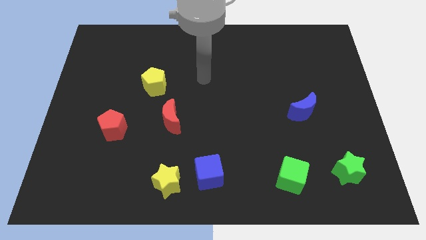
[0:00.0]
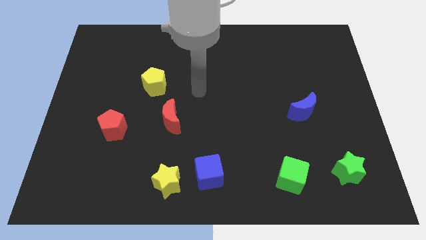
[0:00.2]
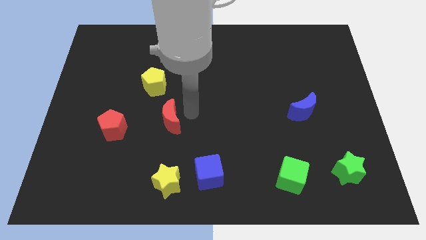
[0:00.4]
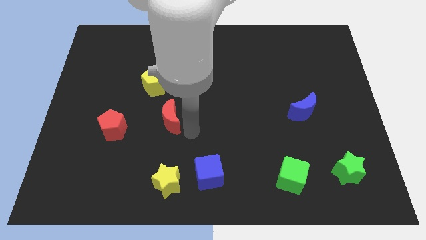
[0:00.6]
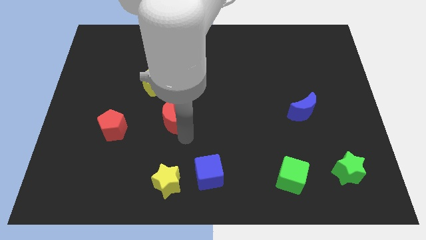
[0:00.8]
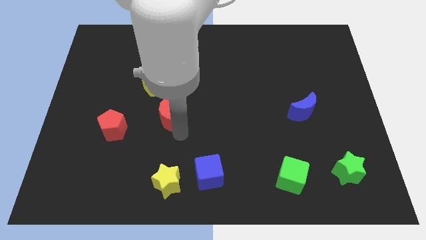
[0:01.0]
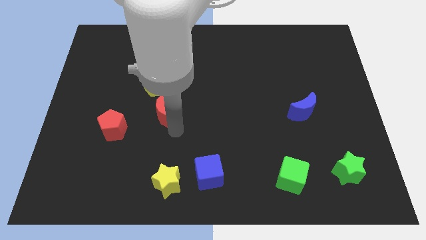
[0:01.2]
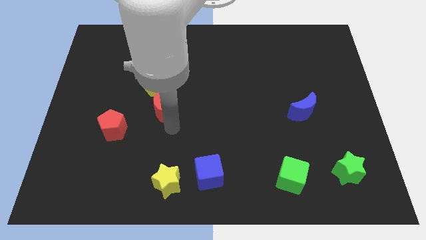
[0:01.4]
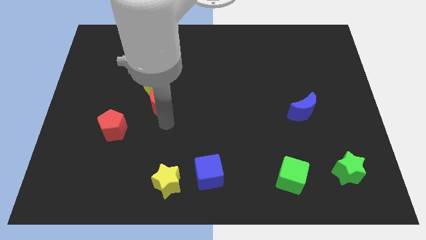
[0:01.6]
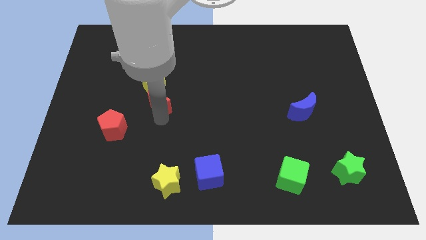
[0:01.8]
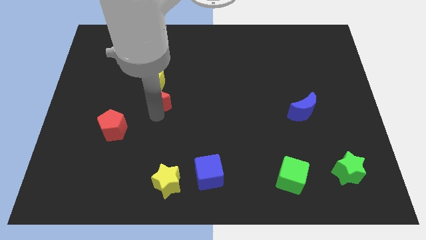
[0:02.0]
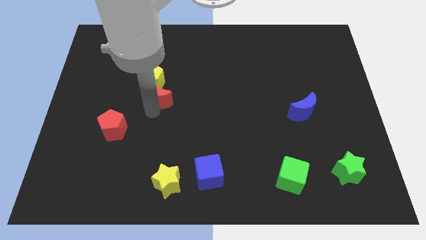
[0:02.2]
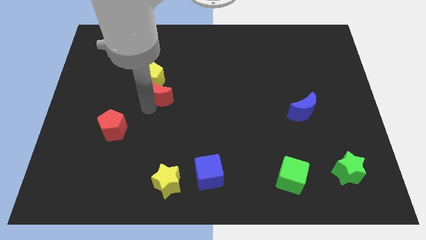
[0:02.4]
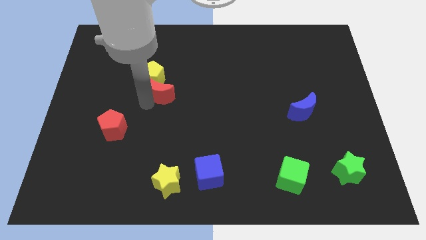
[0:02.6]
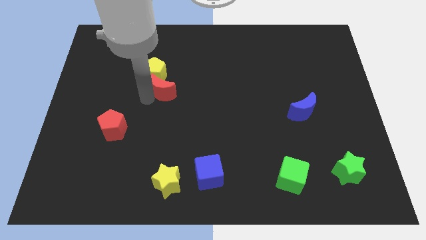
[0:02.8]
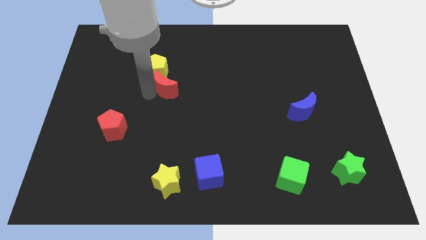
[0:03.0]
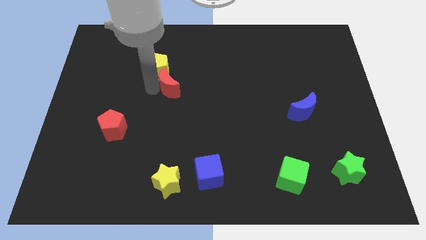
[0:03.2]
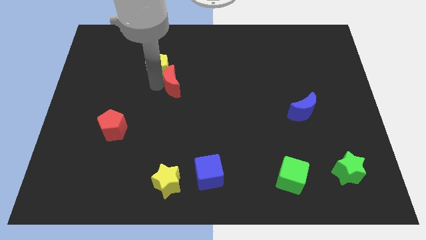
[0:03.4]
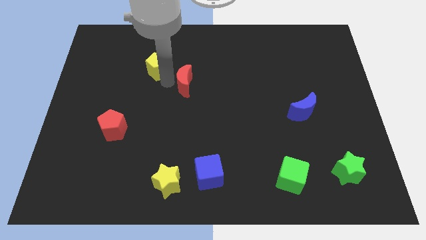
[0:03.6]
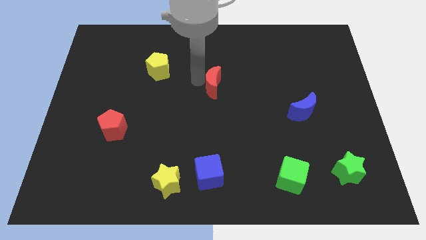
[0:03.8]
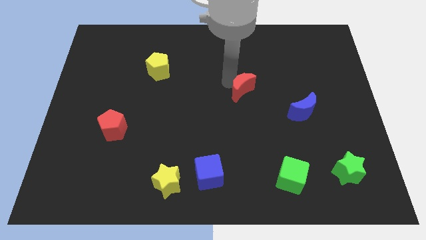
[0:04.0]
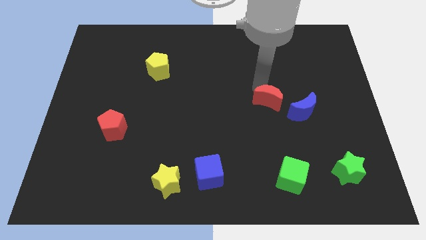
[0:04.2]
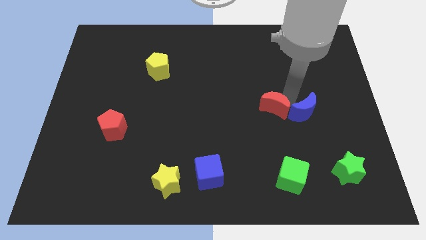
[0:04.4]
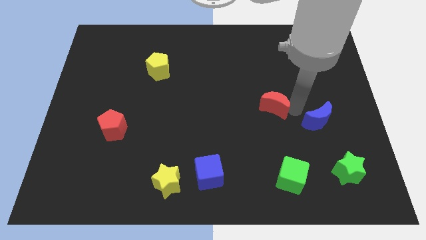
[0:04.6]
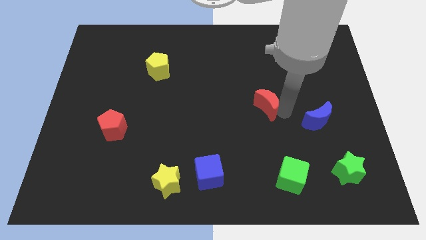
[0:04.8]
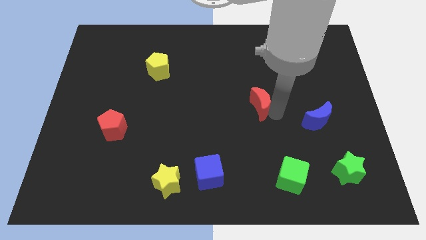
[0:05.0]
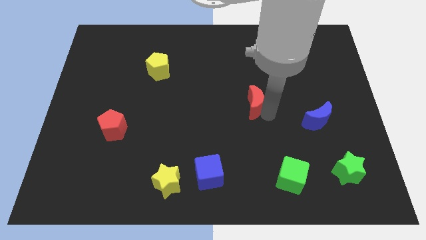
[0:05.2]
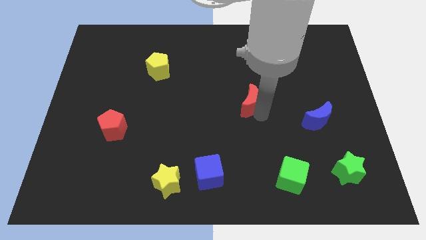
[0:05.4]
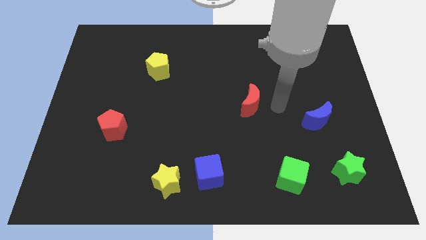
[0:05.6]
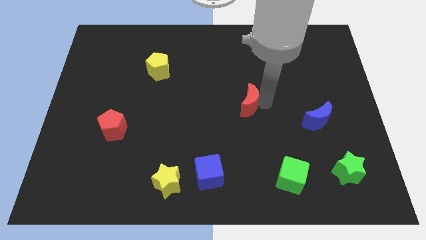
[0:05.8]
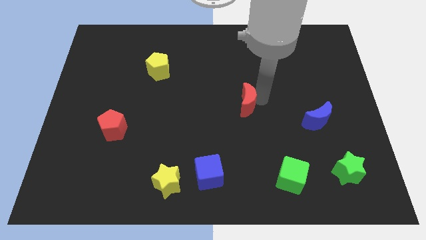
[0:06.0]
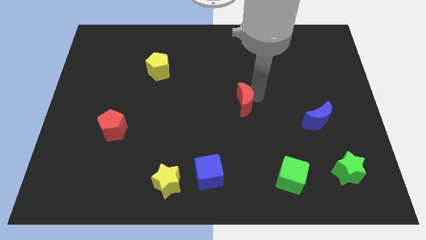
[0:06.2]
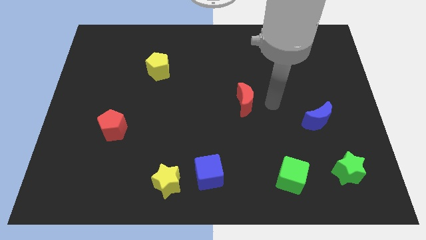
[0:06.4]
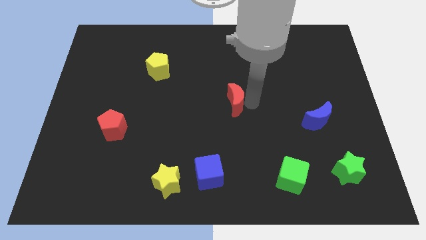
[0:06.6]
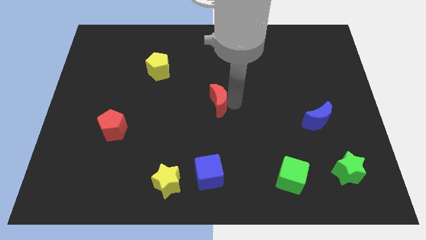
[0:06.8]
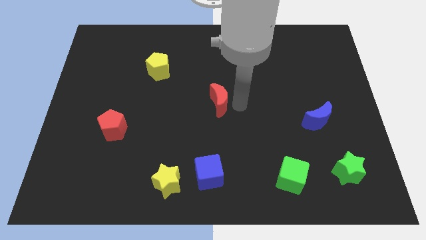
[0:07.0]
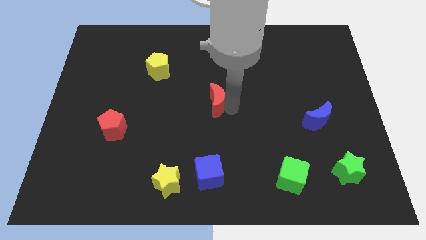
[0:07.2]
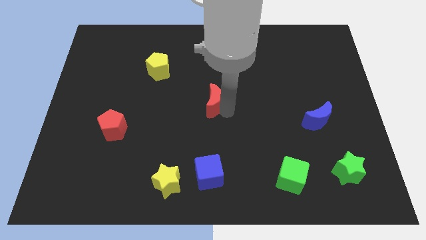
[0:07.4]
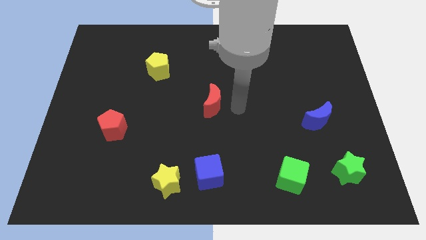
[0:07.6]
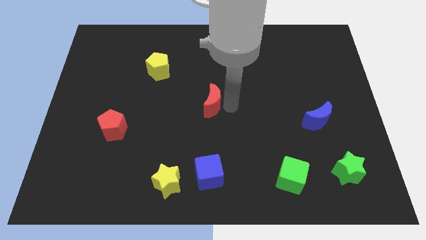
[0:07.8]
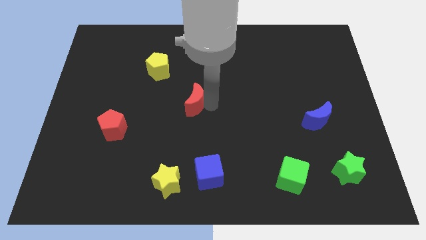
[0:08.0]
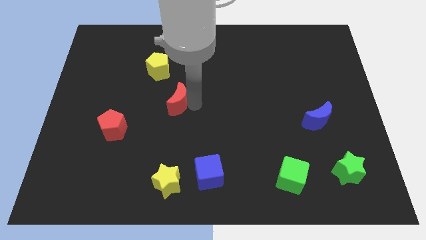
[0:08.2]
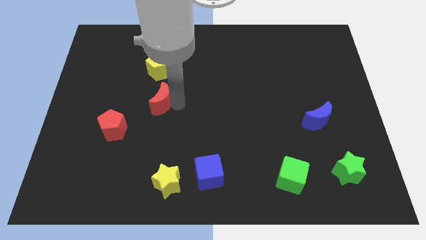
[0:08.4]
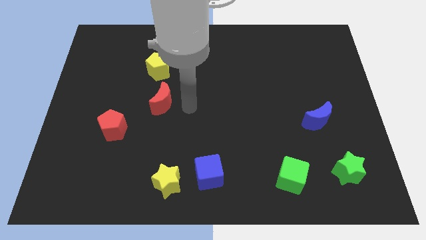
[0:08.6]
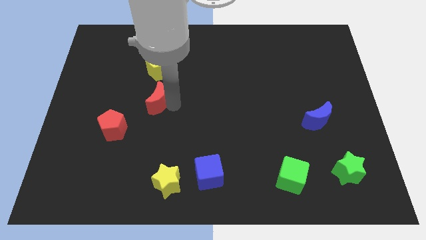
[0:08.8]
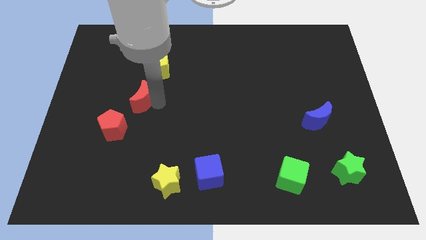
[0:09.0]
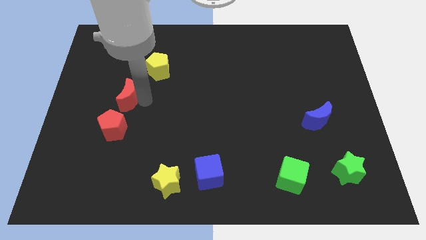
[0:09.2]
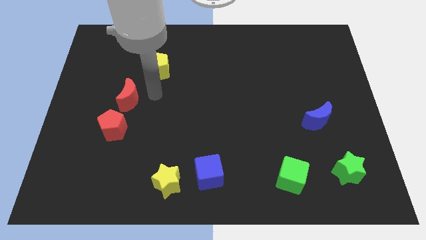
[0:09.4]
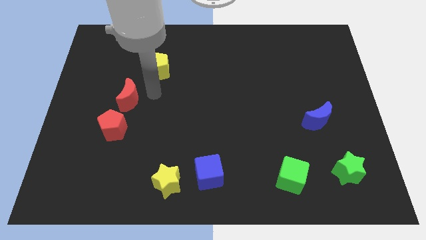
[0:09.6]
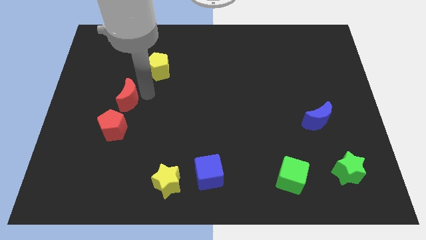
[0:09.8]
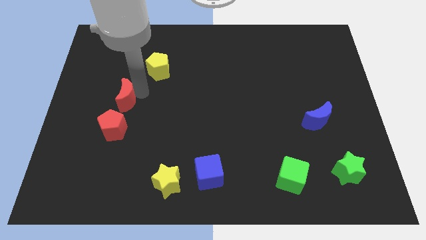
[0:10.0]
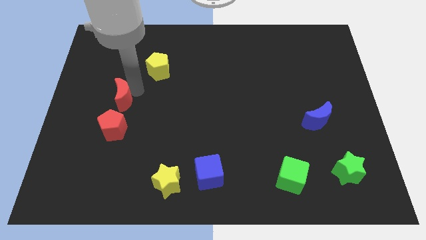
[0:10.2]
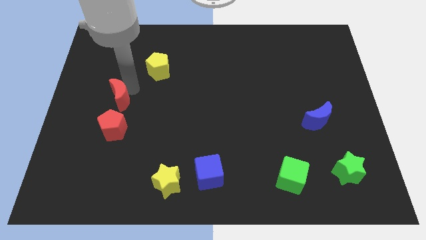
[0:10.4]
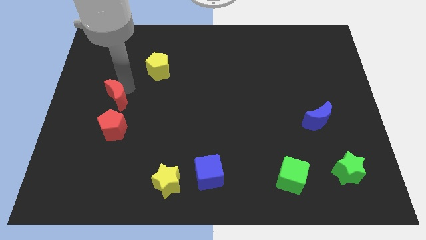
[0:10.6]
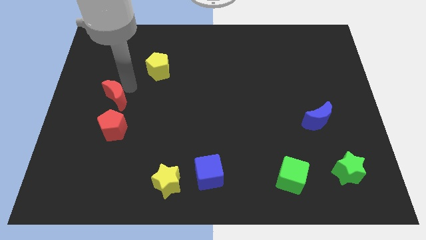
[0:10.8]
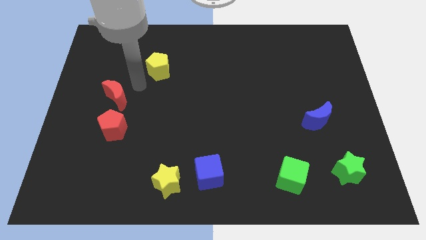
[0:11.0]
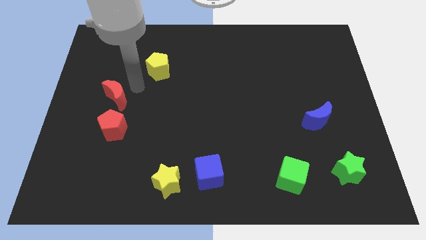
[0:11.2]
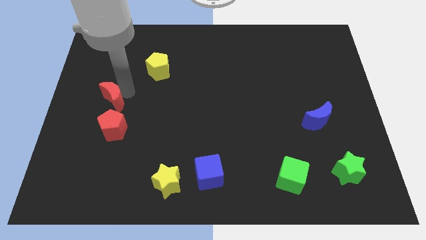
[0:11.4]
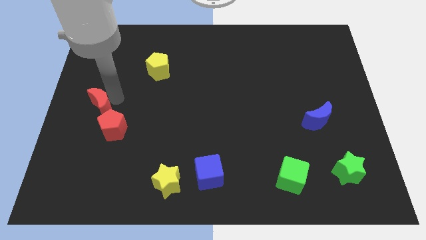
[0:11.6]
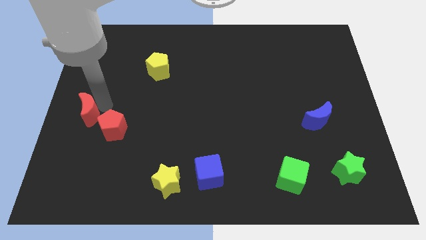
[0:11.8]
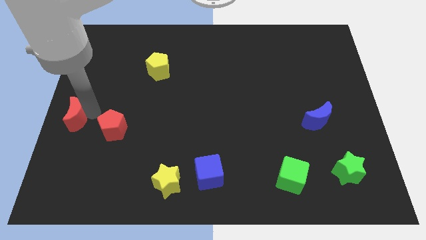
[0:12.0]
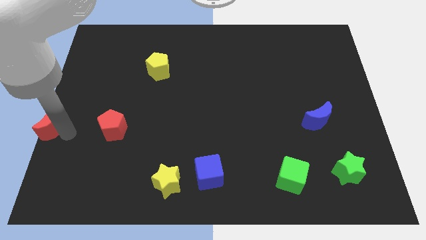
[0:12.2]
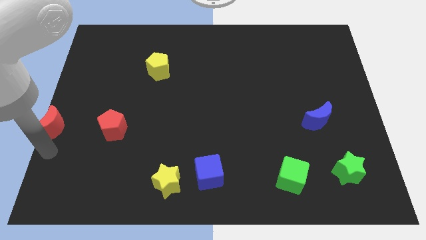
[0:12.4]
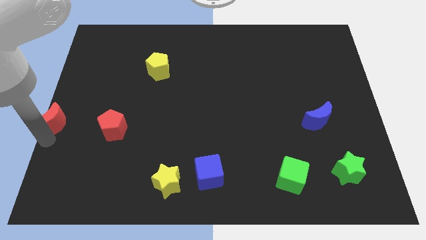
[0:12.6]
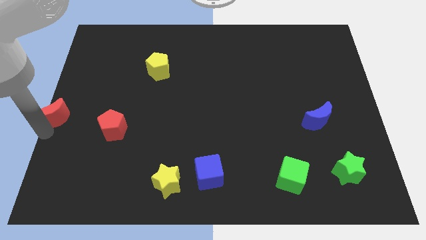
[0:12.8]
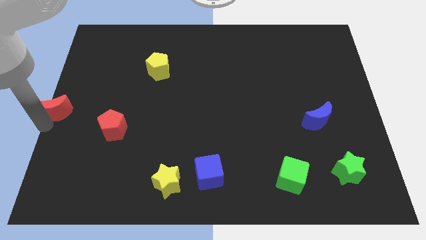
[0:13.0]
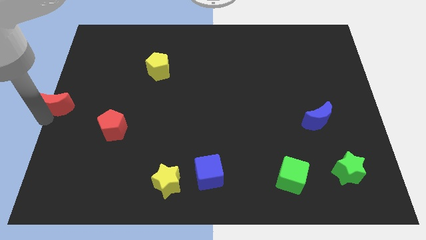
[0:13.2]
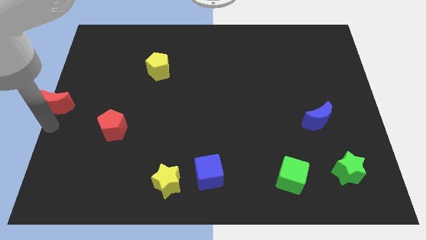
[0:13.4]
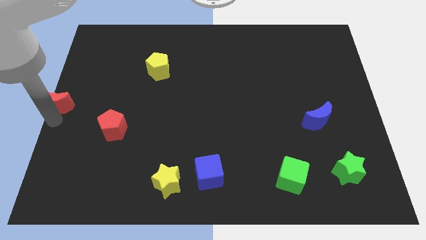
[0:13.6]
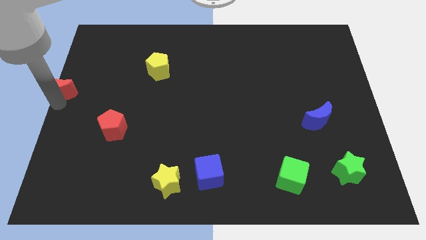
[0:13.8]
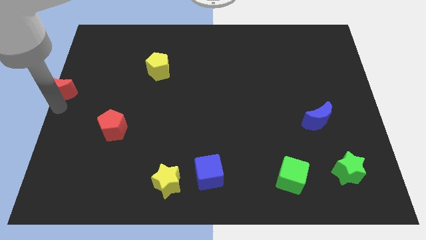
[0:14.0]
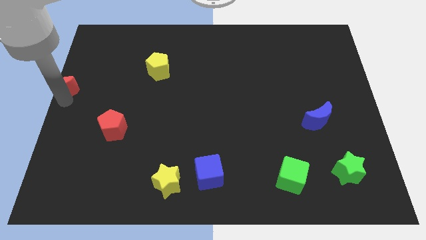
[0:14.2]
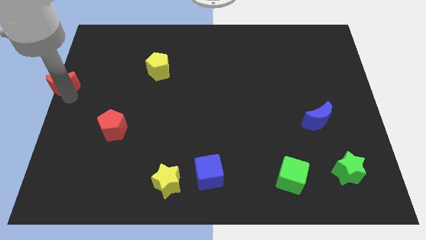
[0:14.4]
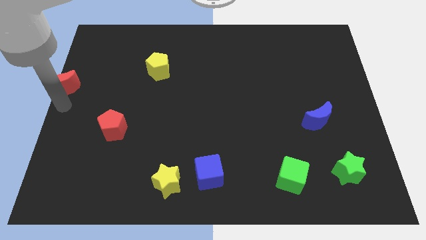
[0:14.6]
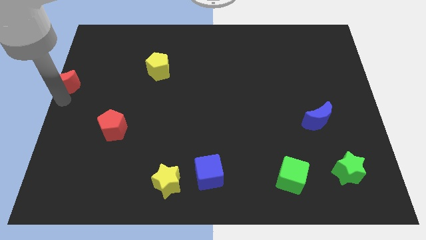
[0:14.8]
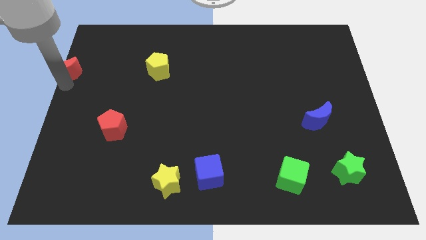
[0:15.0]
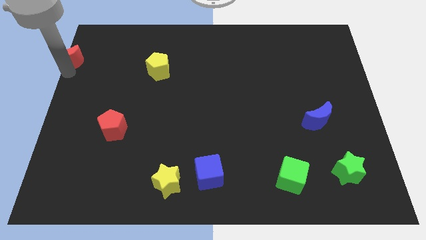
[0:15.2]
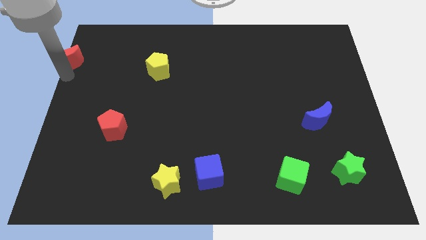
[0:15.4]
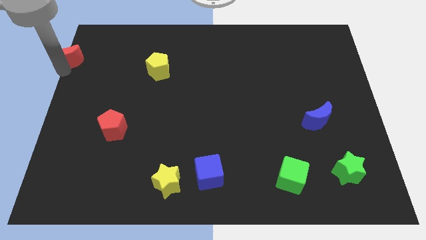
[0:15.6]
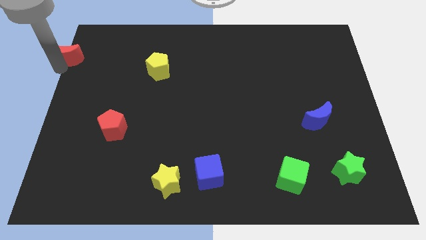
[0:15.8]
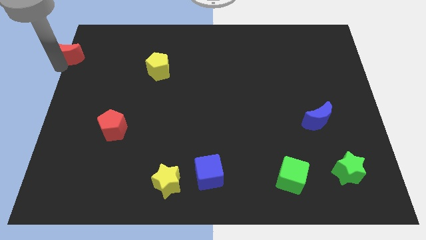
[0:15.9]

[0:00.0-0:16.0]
slide the red moon to the top left of the board
